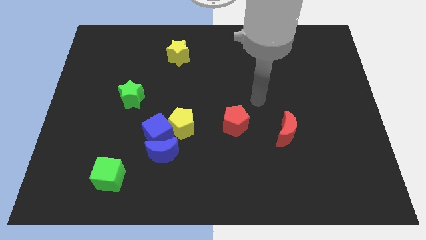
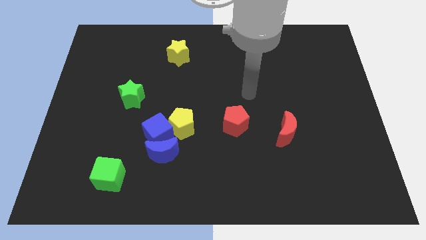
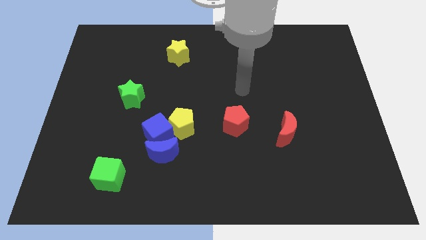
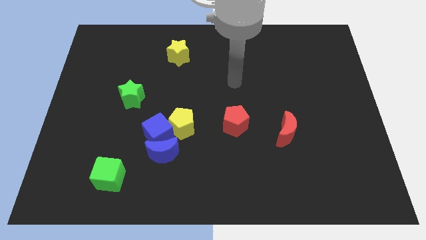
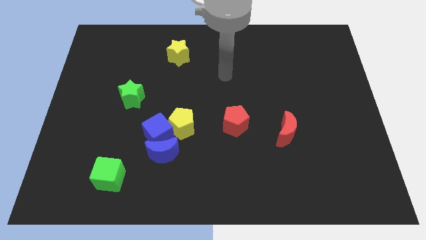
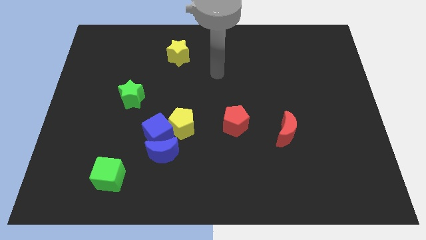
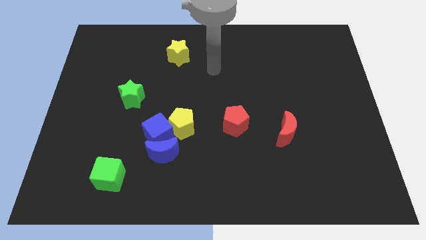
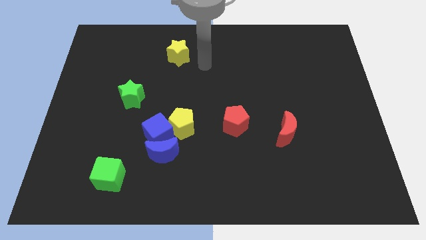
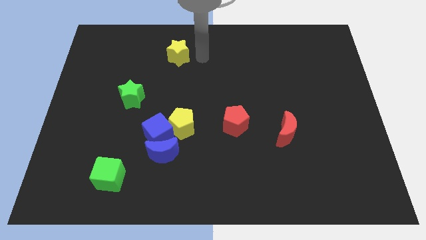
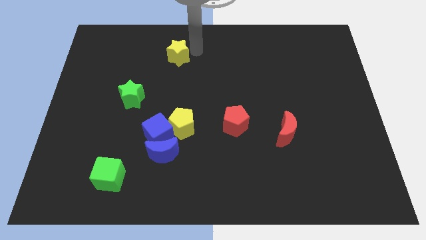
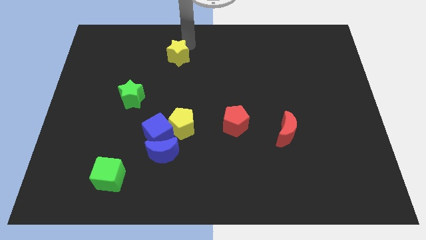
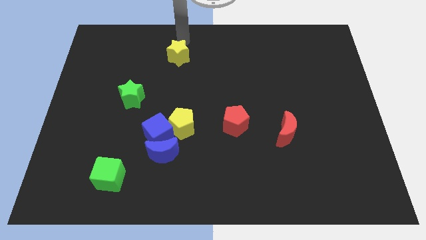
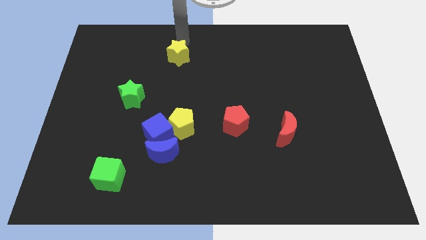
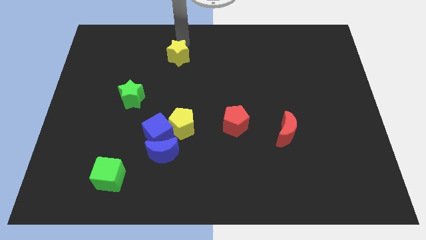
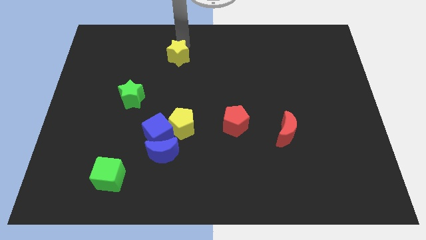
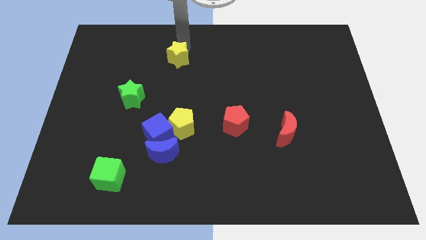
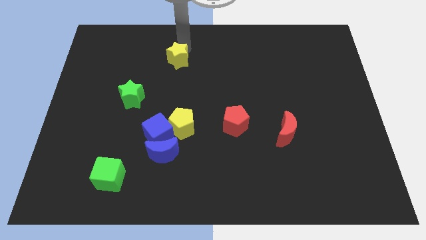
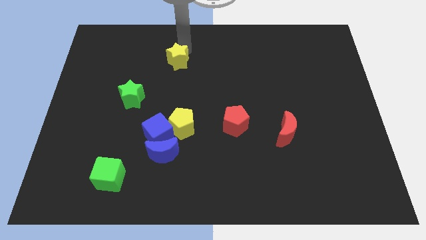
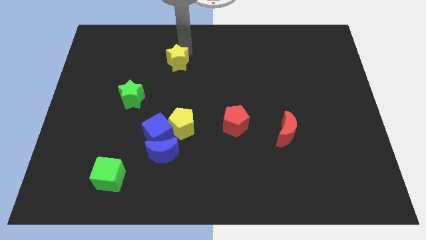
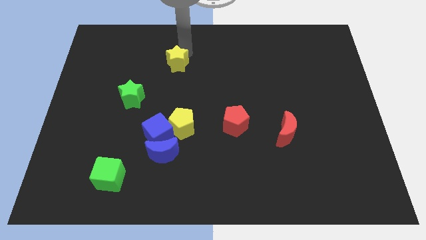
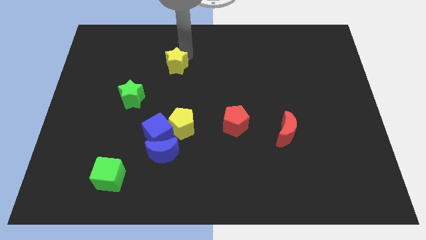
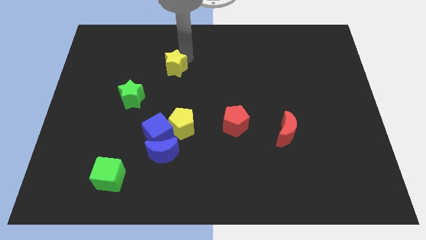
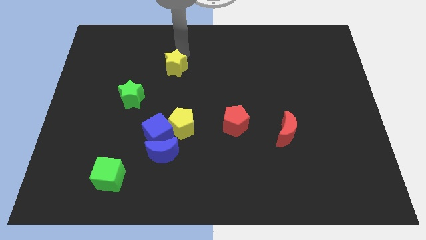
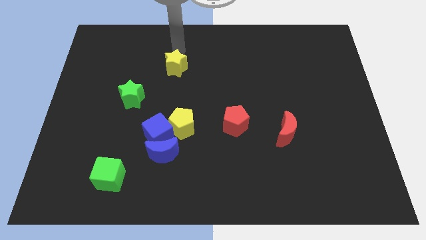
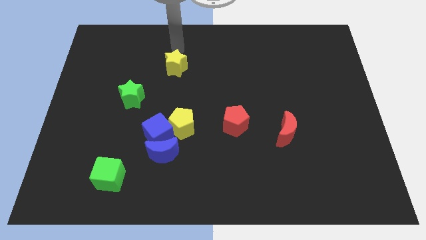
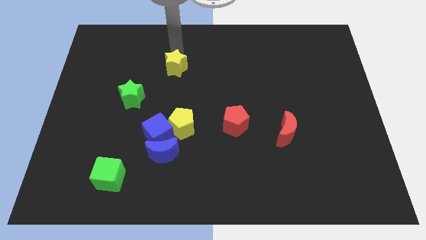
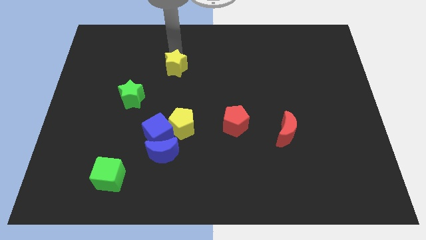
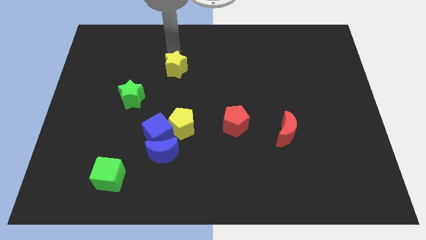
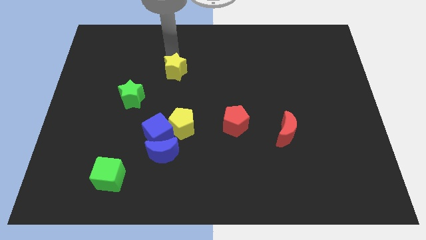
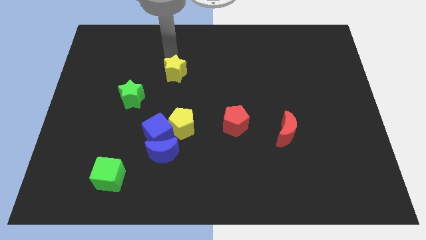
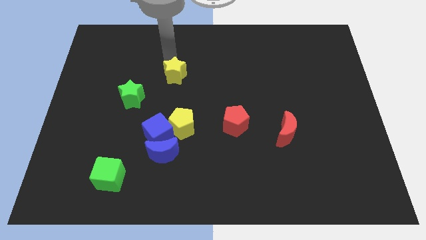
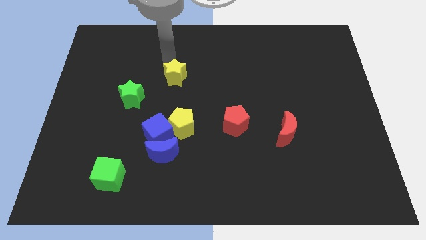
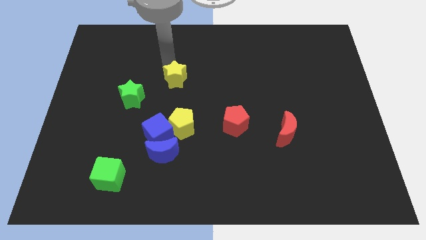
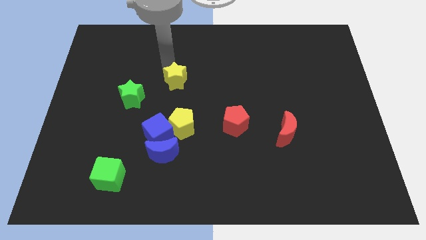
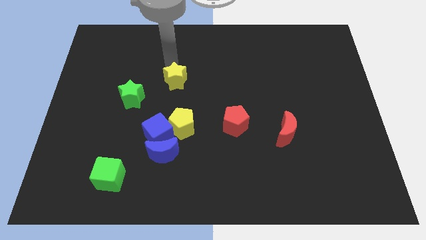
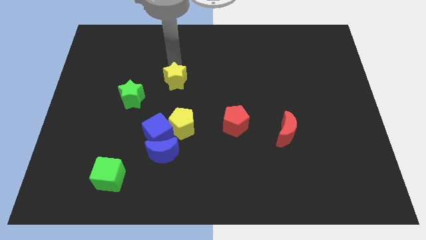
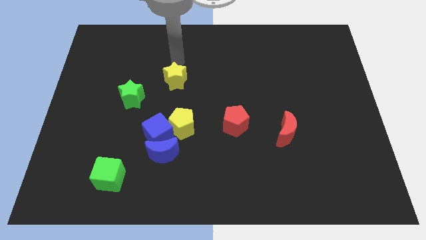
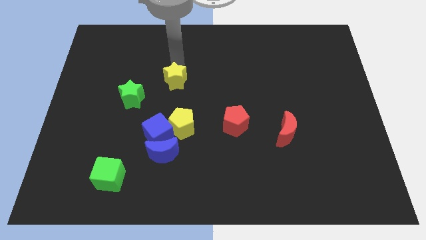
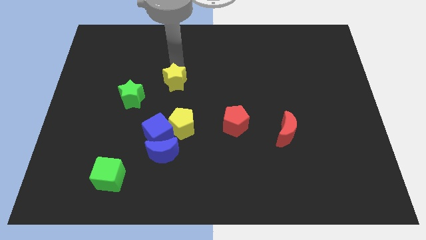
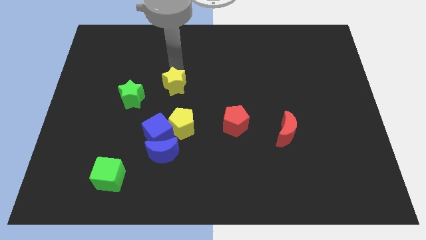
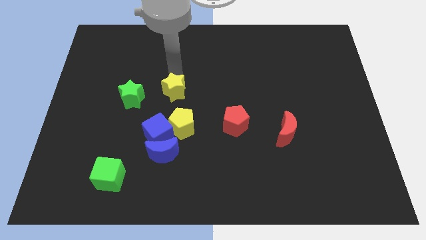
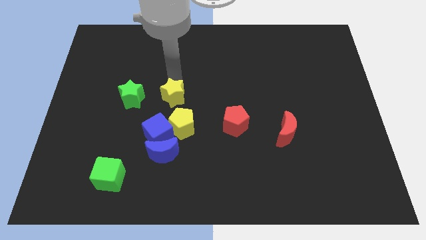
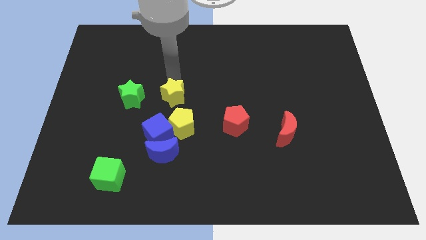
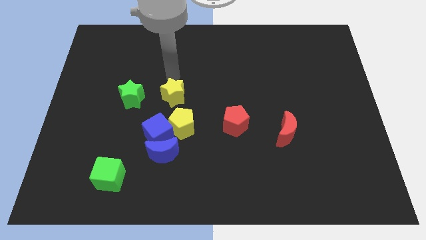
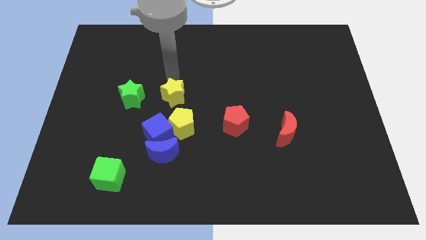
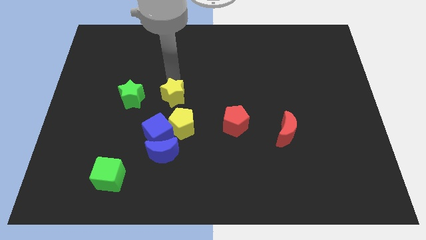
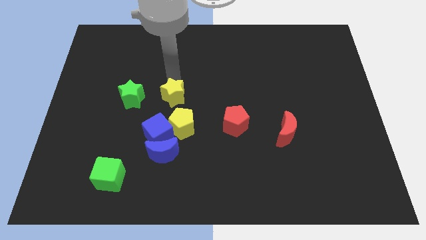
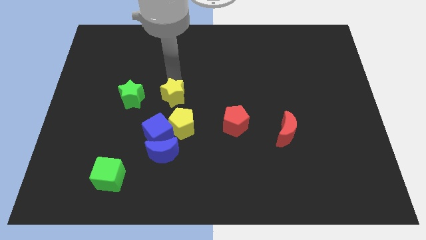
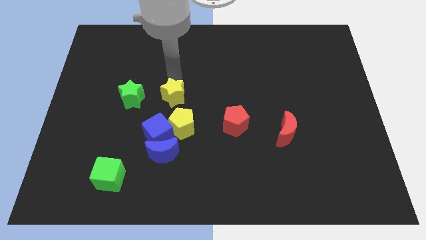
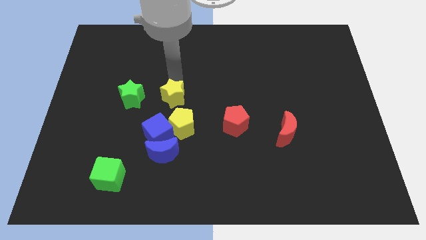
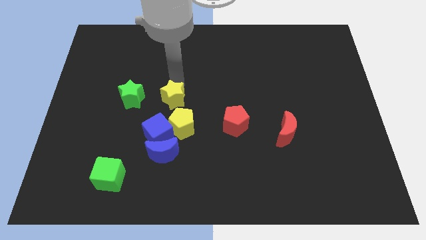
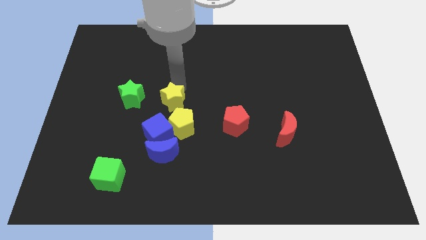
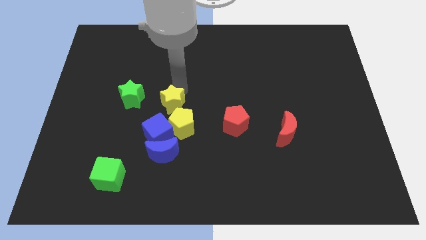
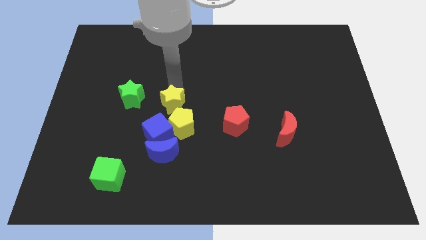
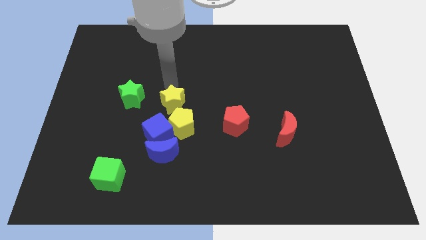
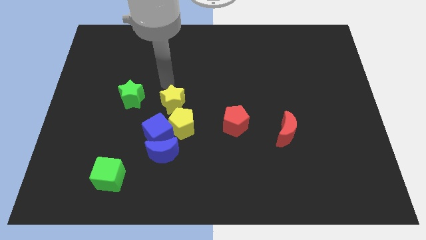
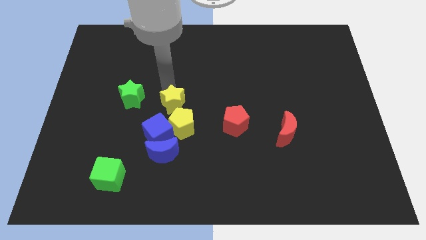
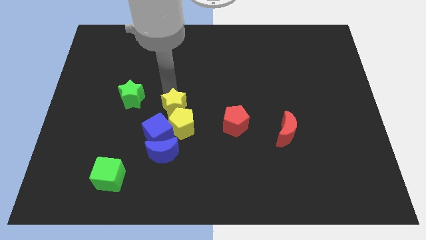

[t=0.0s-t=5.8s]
put the yellow star next to the yellow pentagon
